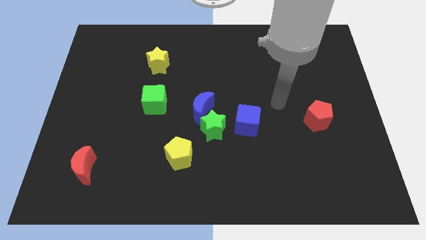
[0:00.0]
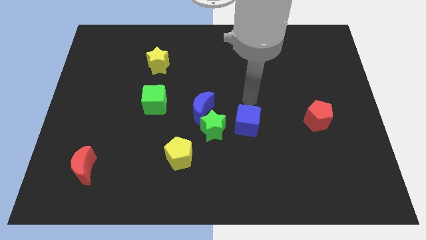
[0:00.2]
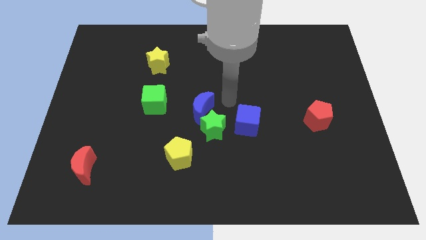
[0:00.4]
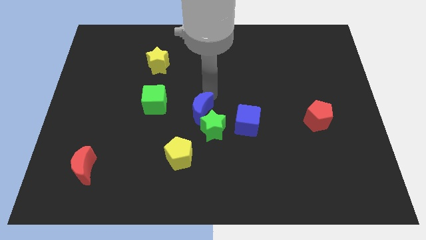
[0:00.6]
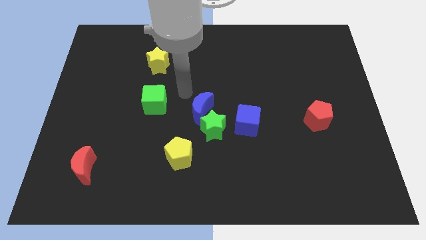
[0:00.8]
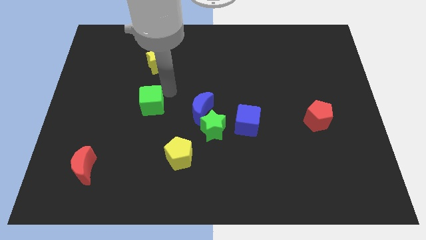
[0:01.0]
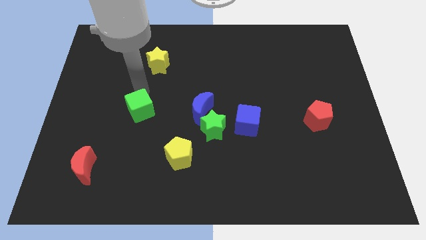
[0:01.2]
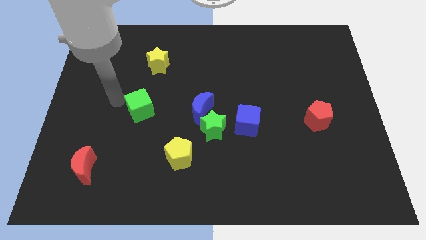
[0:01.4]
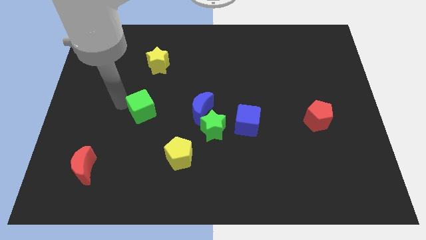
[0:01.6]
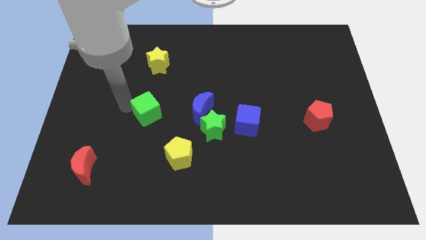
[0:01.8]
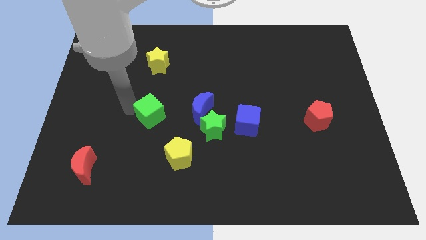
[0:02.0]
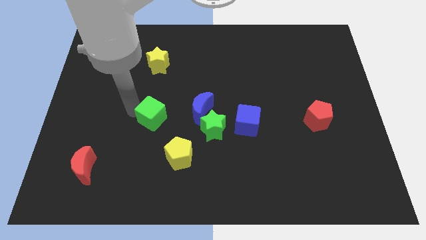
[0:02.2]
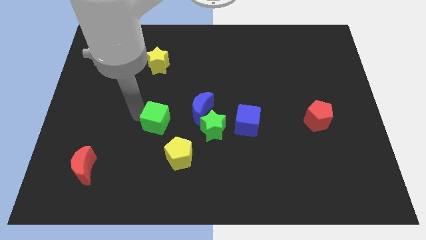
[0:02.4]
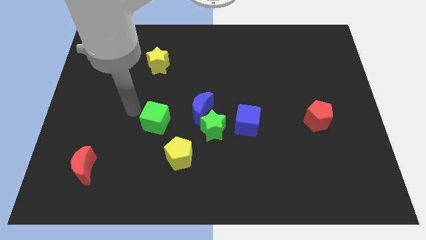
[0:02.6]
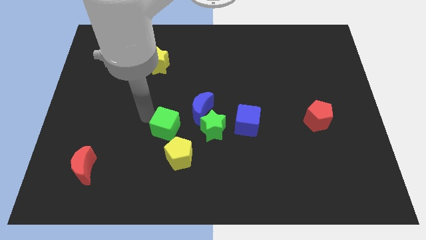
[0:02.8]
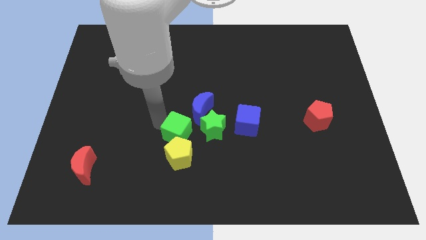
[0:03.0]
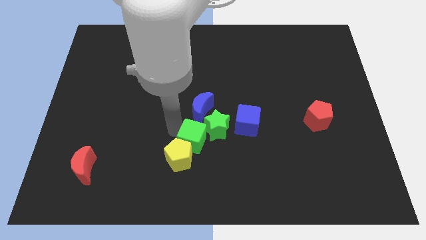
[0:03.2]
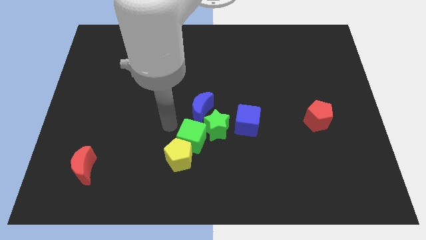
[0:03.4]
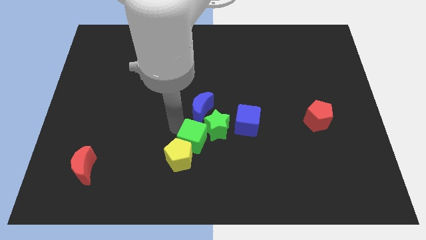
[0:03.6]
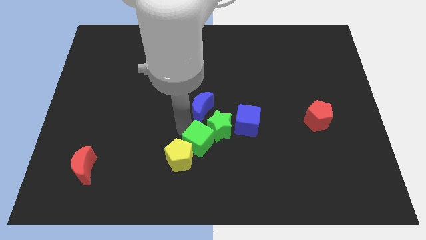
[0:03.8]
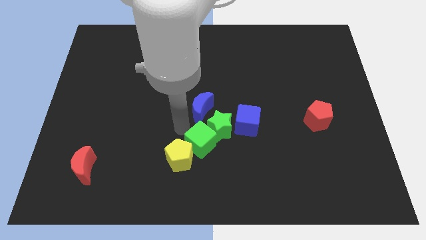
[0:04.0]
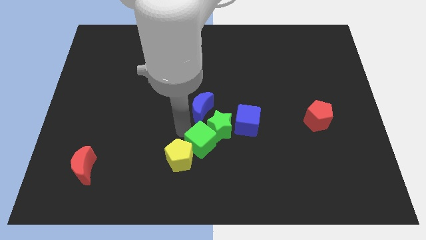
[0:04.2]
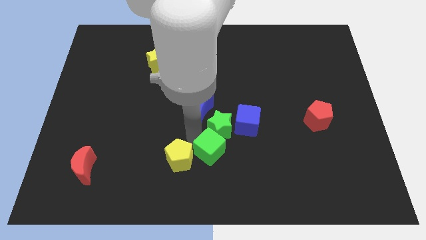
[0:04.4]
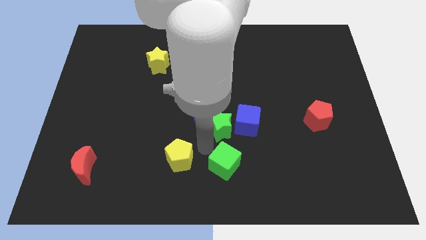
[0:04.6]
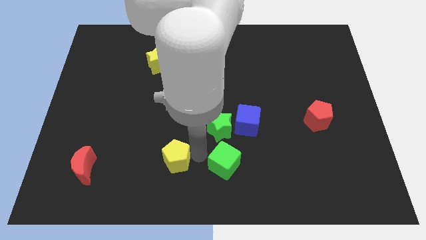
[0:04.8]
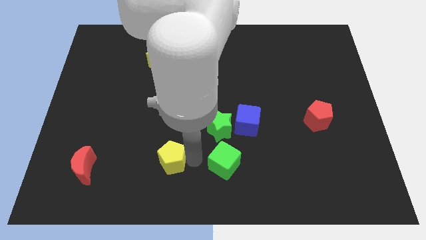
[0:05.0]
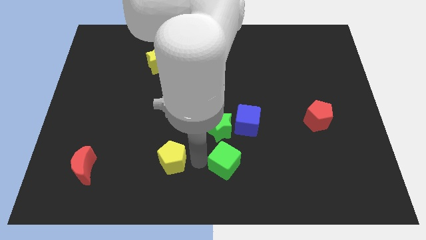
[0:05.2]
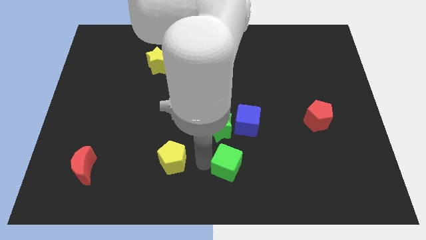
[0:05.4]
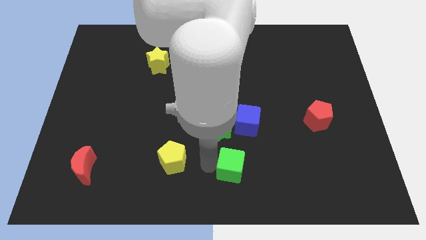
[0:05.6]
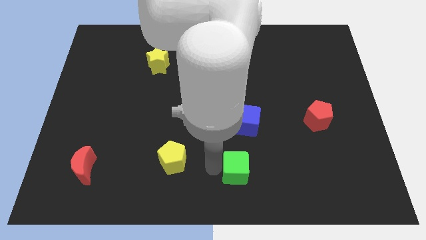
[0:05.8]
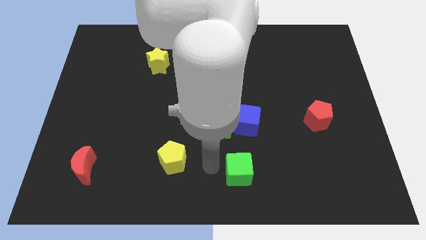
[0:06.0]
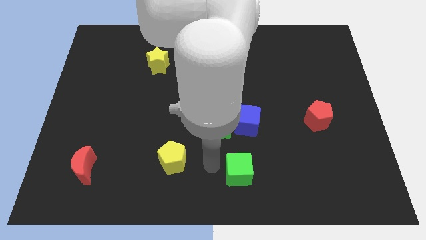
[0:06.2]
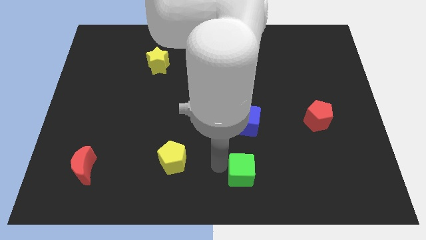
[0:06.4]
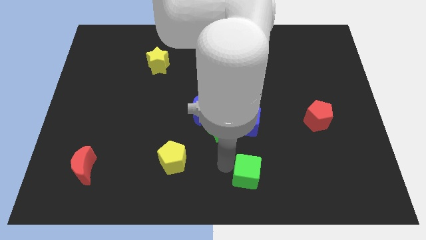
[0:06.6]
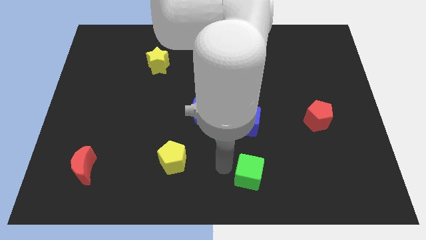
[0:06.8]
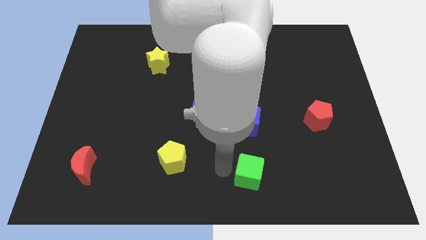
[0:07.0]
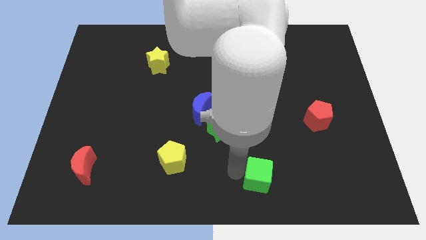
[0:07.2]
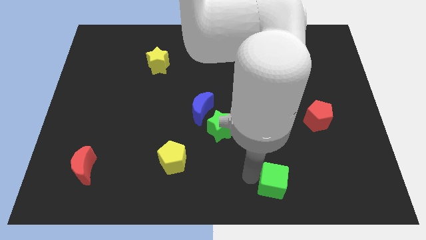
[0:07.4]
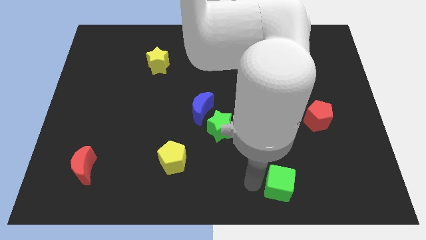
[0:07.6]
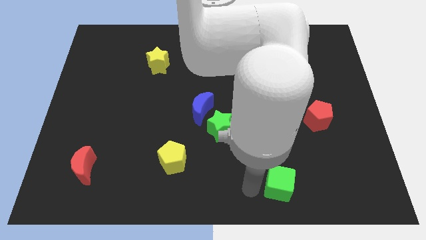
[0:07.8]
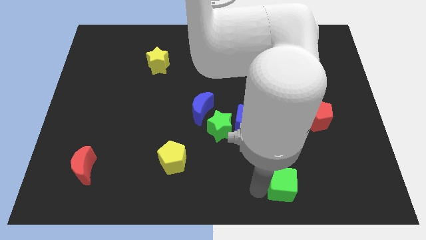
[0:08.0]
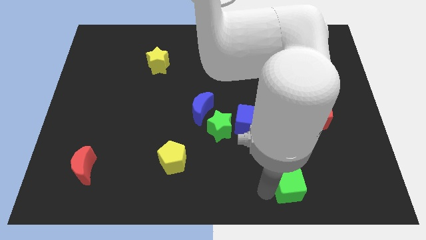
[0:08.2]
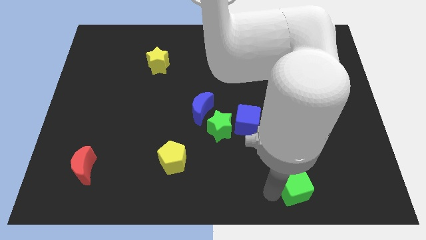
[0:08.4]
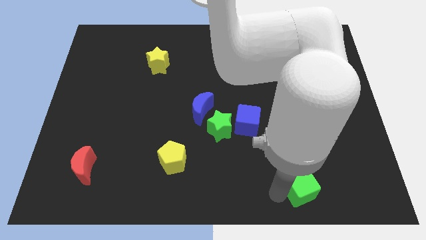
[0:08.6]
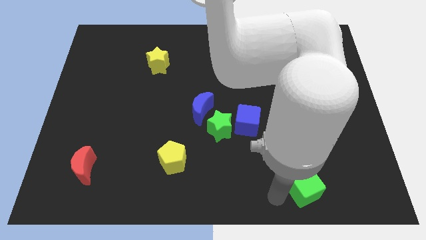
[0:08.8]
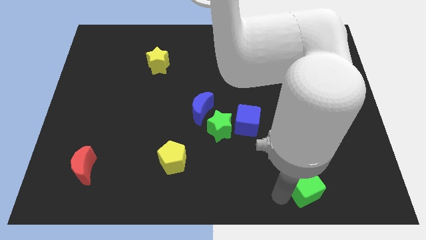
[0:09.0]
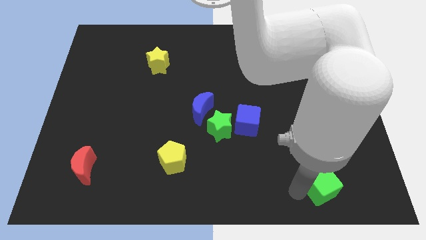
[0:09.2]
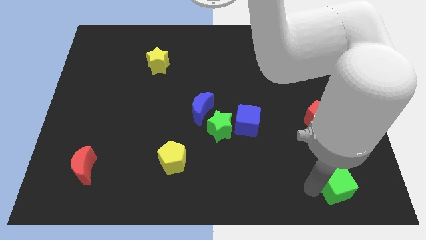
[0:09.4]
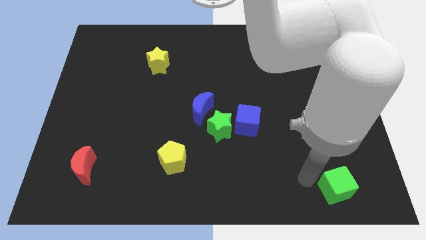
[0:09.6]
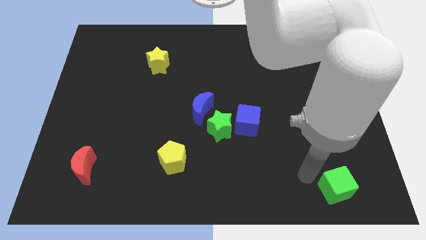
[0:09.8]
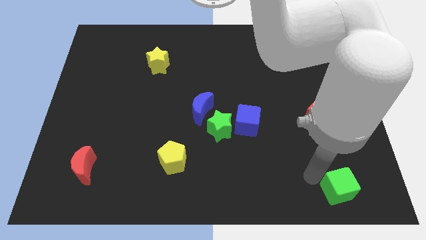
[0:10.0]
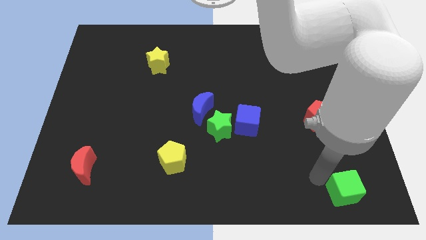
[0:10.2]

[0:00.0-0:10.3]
push the green cube to the bottom right of the board

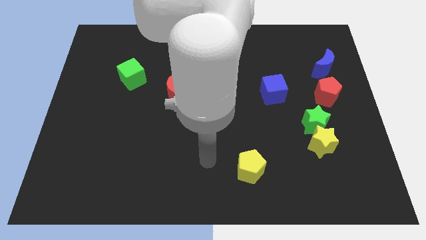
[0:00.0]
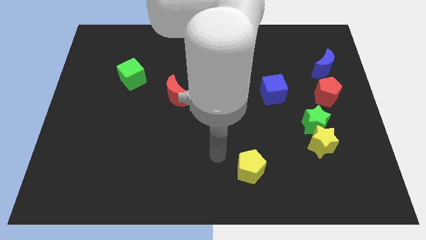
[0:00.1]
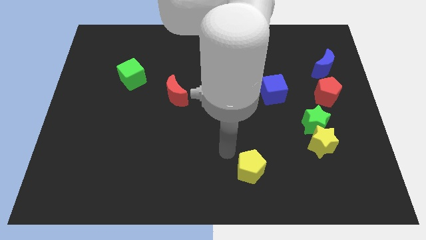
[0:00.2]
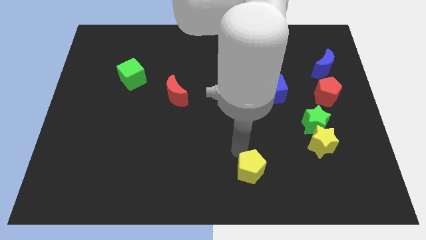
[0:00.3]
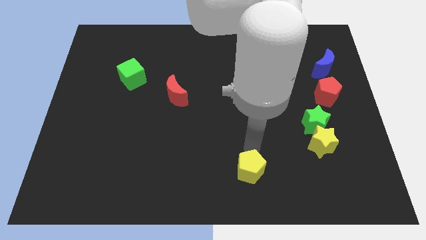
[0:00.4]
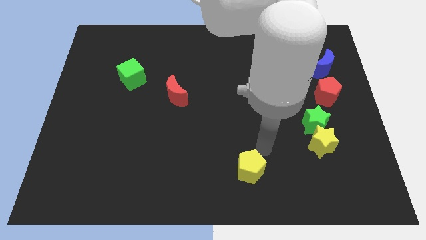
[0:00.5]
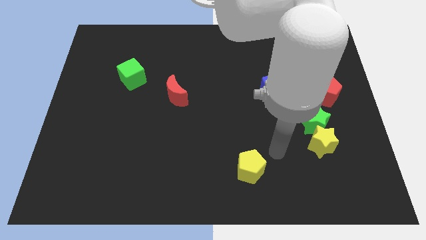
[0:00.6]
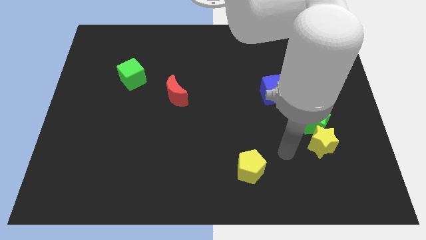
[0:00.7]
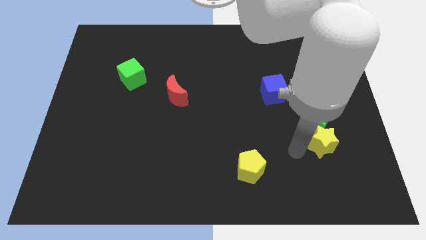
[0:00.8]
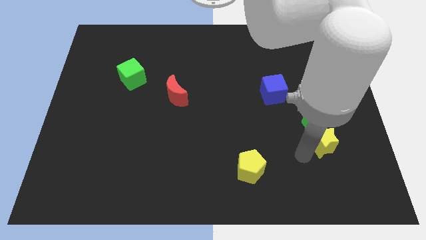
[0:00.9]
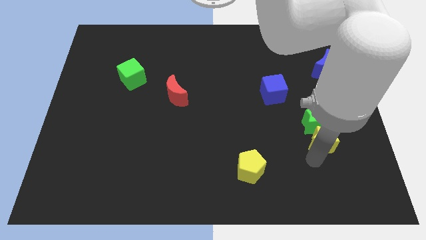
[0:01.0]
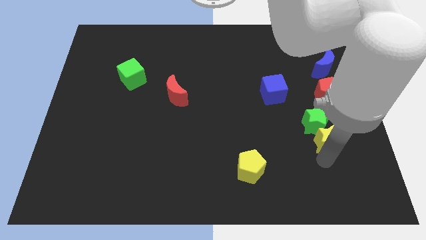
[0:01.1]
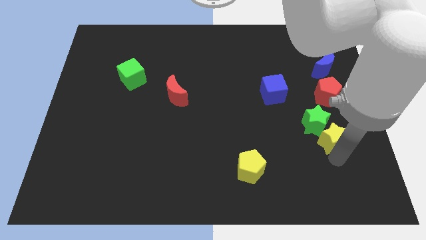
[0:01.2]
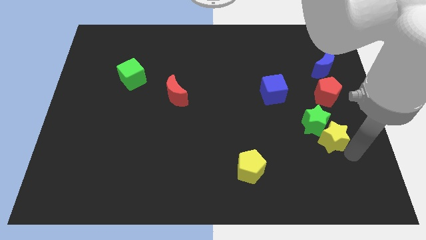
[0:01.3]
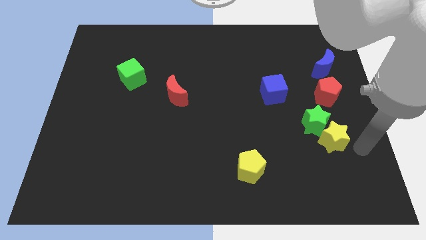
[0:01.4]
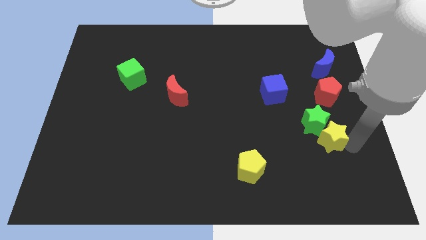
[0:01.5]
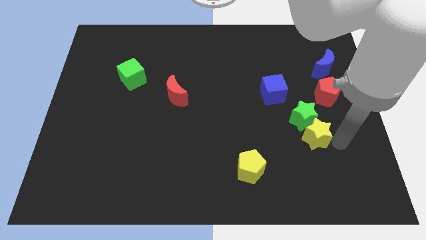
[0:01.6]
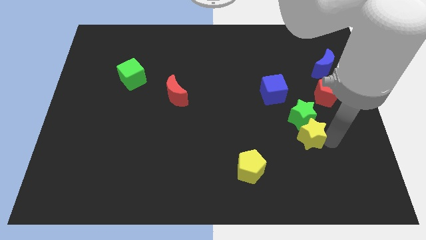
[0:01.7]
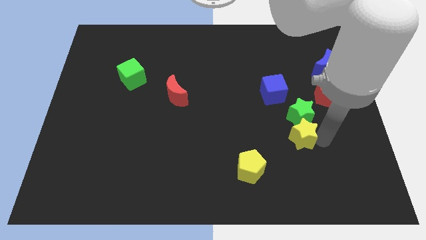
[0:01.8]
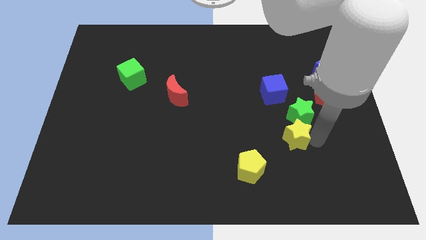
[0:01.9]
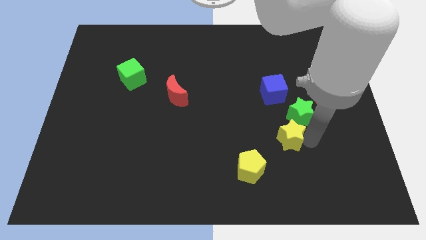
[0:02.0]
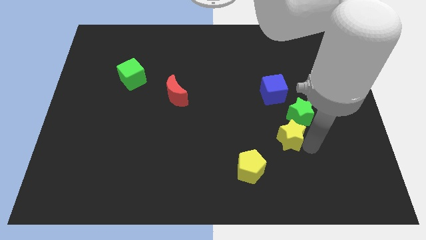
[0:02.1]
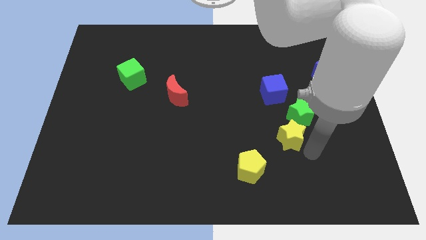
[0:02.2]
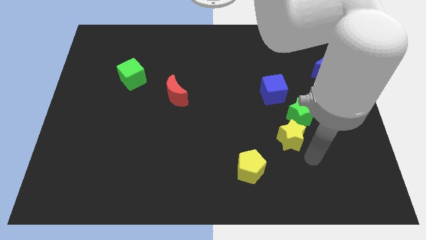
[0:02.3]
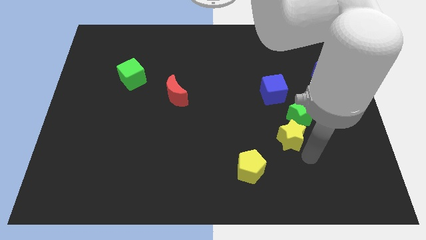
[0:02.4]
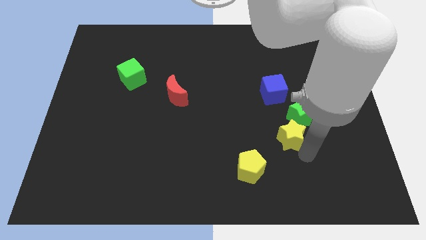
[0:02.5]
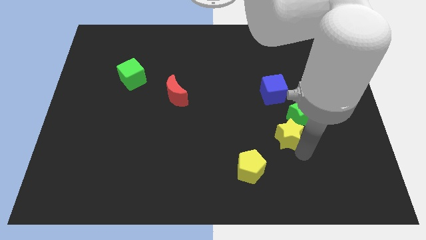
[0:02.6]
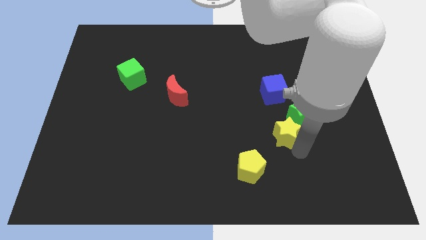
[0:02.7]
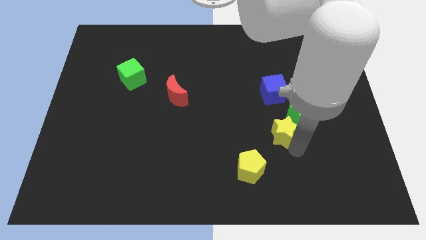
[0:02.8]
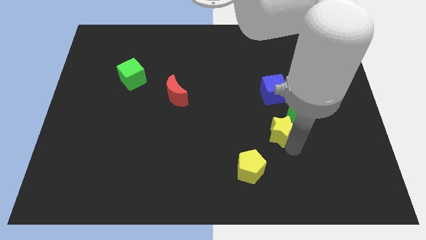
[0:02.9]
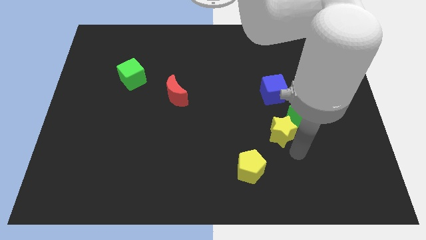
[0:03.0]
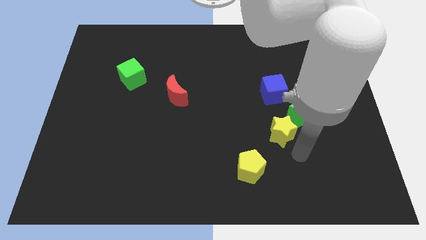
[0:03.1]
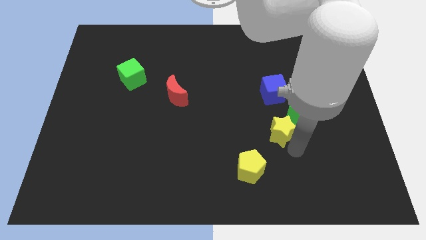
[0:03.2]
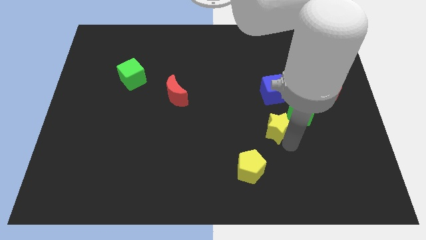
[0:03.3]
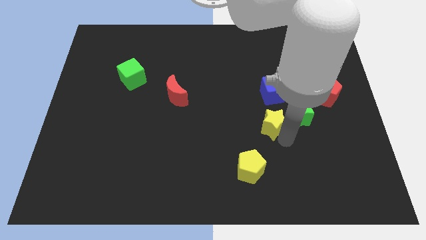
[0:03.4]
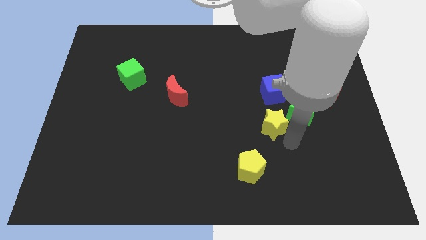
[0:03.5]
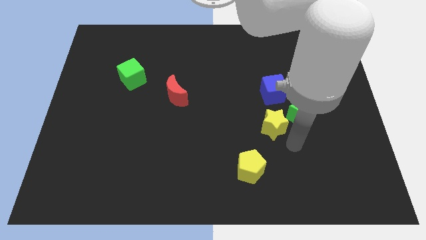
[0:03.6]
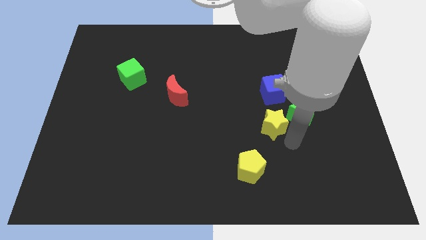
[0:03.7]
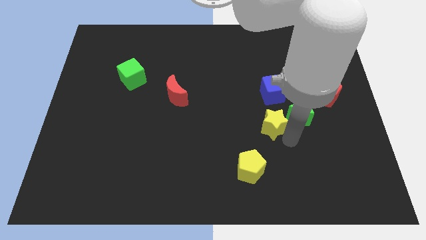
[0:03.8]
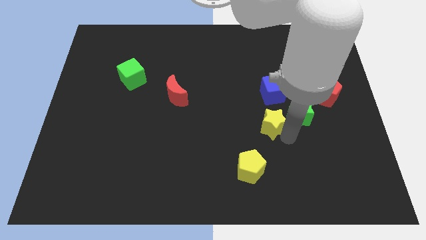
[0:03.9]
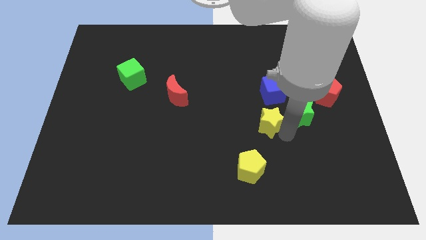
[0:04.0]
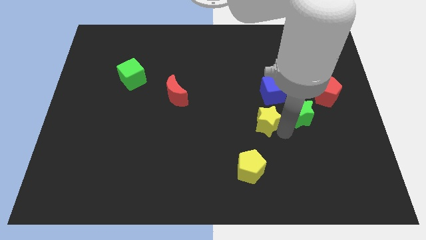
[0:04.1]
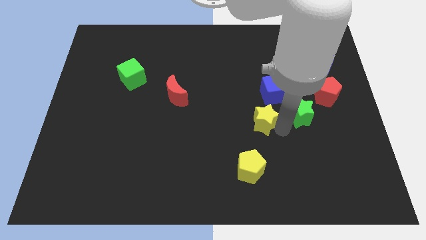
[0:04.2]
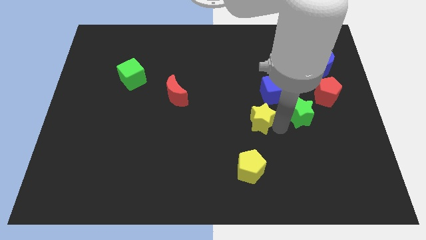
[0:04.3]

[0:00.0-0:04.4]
push the yellow star to the center of the board
